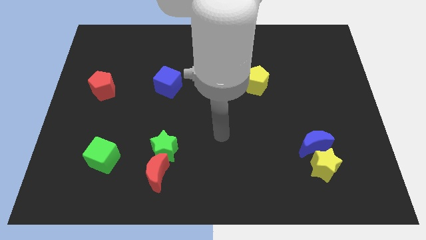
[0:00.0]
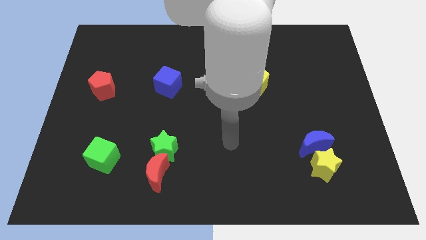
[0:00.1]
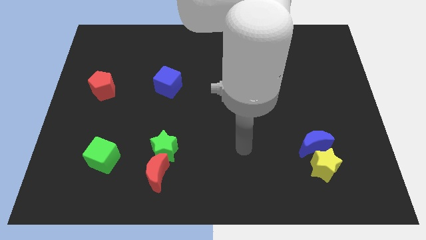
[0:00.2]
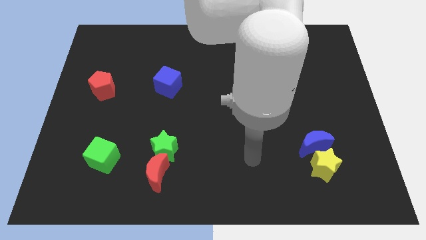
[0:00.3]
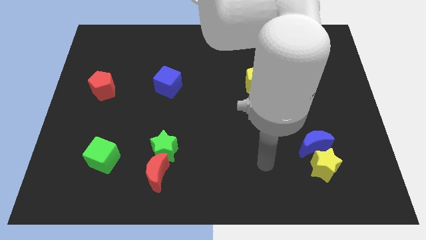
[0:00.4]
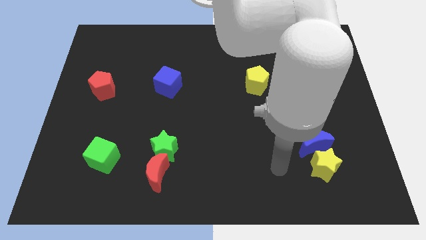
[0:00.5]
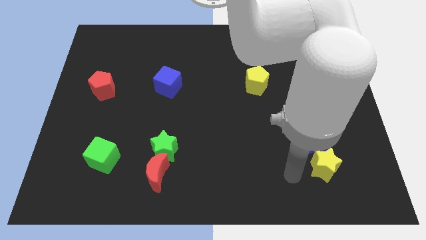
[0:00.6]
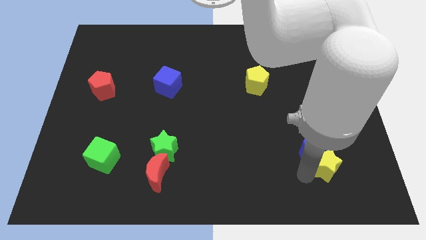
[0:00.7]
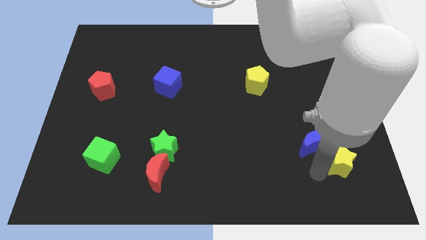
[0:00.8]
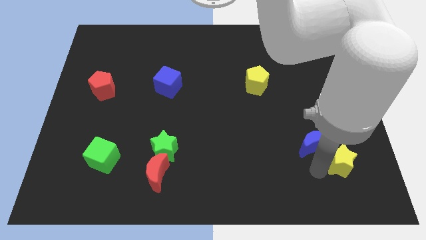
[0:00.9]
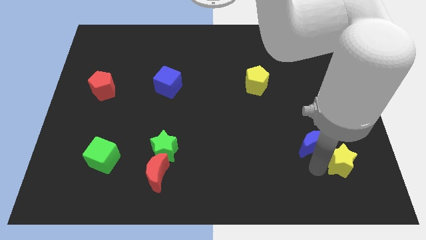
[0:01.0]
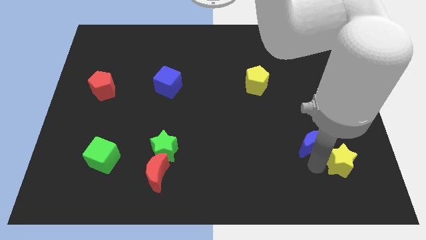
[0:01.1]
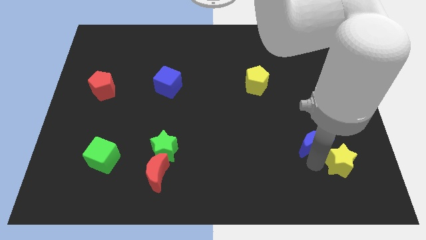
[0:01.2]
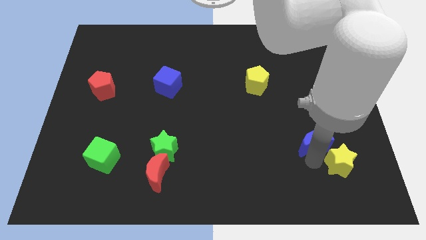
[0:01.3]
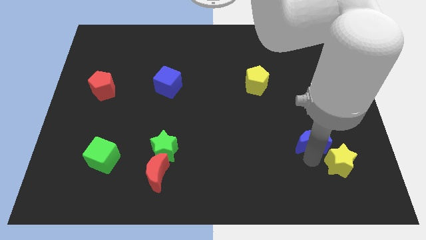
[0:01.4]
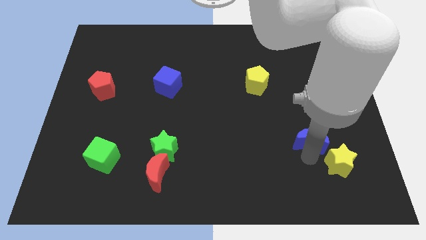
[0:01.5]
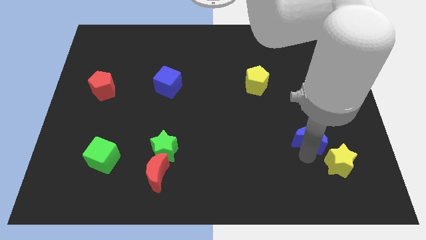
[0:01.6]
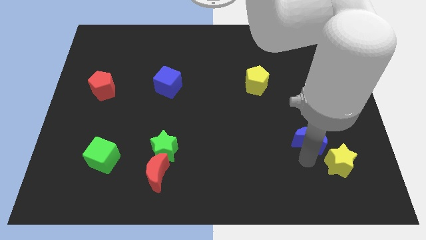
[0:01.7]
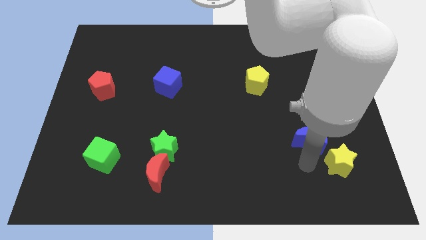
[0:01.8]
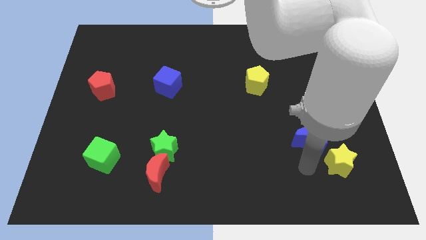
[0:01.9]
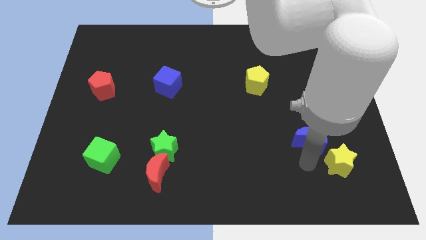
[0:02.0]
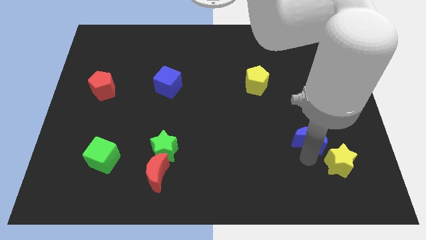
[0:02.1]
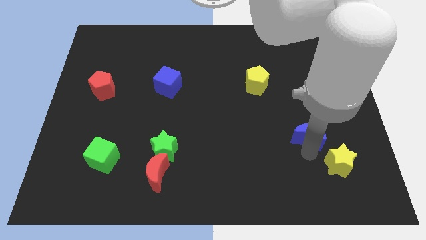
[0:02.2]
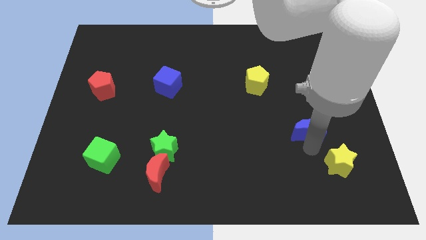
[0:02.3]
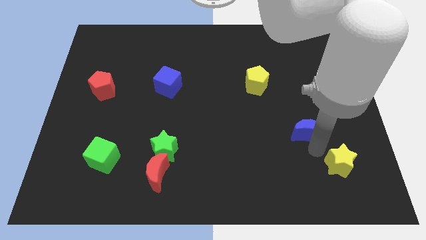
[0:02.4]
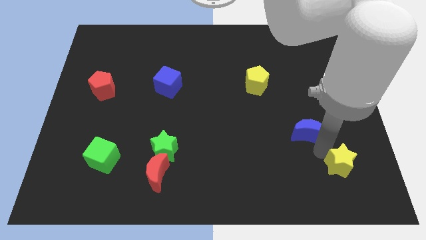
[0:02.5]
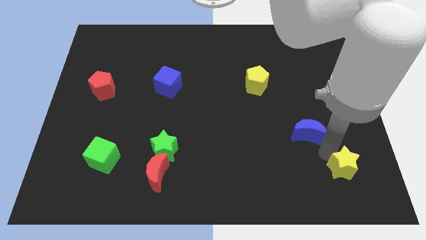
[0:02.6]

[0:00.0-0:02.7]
move the blue moon away from the yellow star

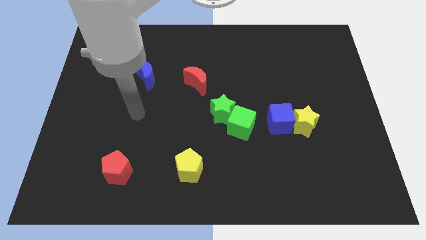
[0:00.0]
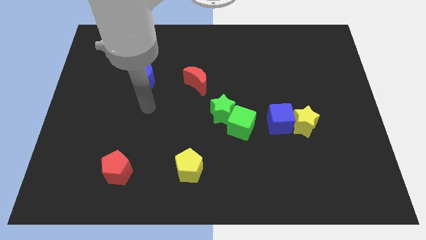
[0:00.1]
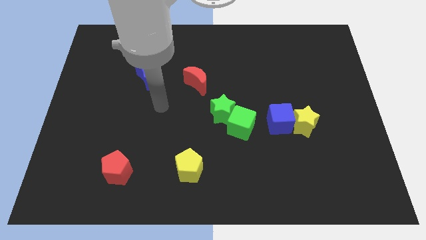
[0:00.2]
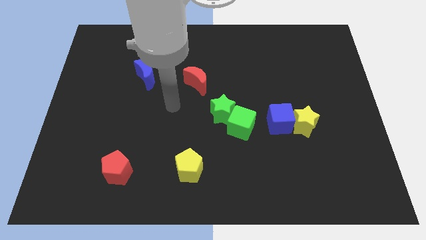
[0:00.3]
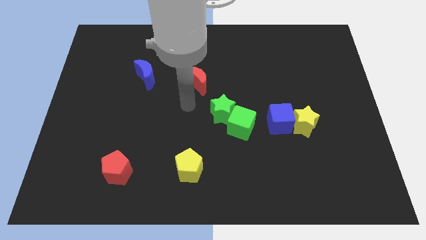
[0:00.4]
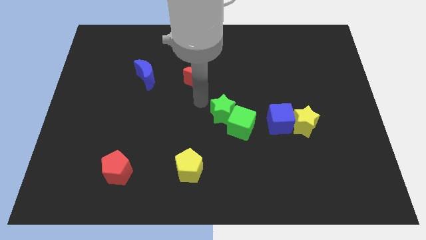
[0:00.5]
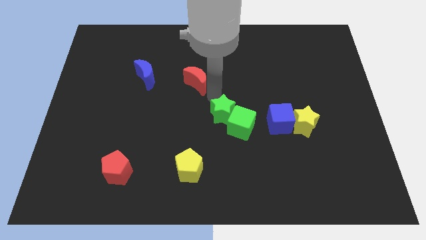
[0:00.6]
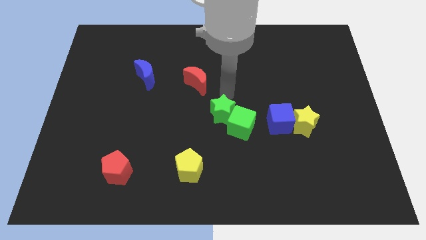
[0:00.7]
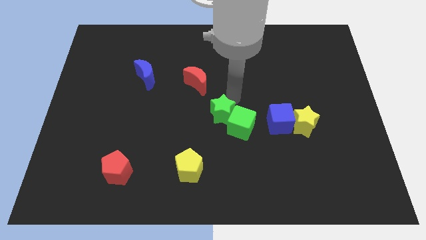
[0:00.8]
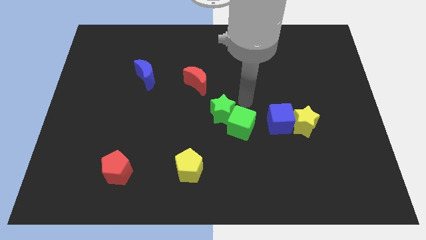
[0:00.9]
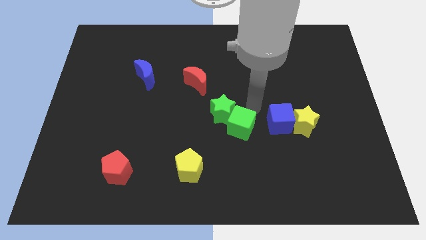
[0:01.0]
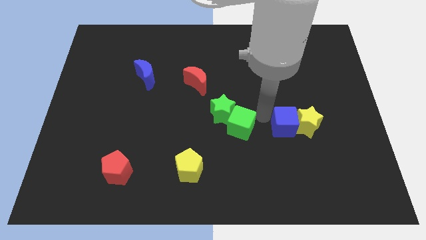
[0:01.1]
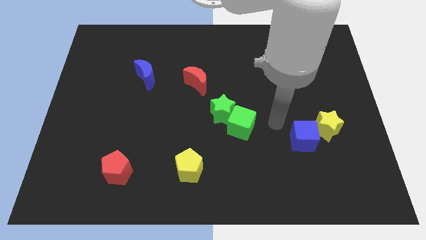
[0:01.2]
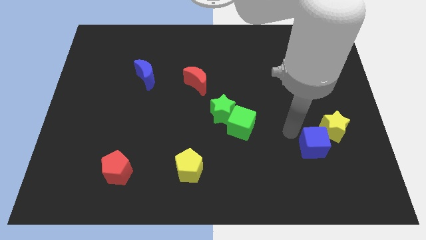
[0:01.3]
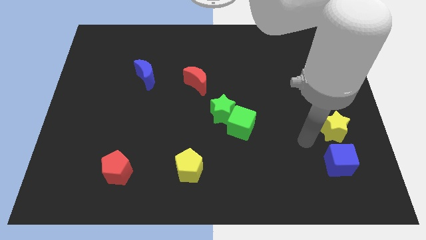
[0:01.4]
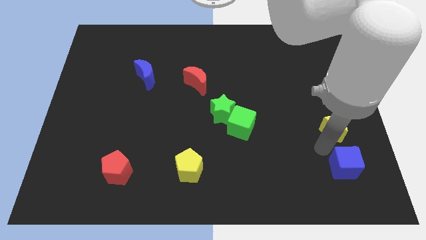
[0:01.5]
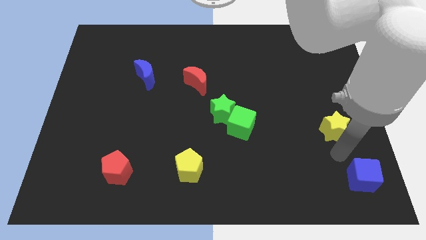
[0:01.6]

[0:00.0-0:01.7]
separate the yellow star from the blue cube

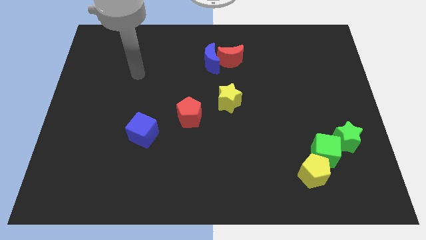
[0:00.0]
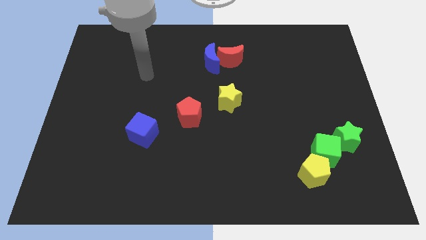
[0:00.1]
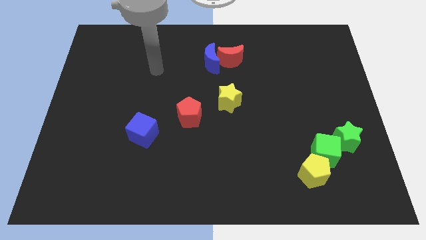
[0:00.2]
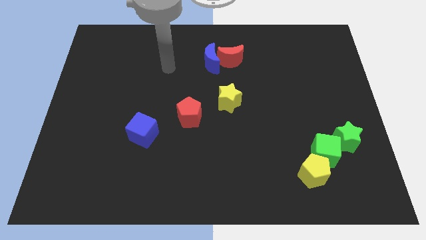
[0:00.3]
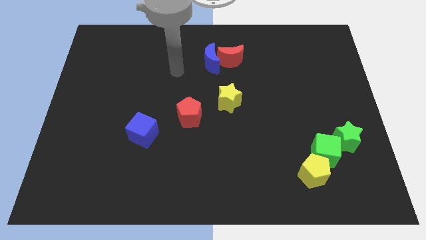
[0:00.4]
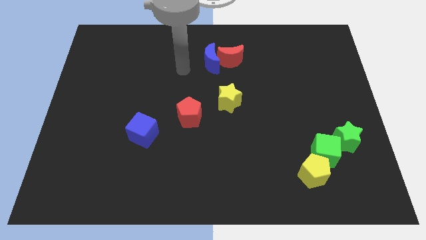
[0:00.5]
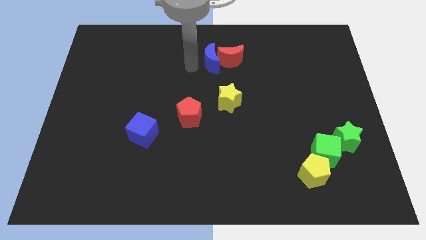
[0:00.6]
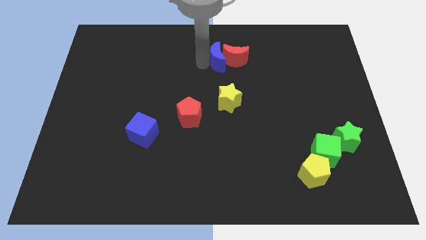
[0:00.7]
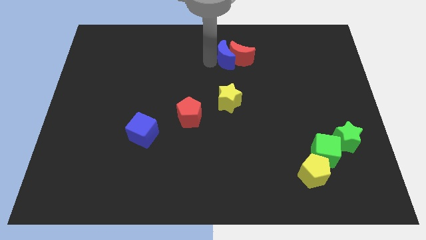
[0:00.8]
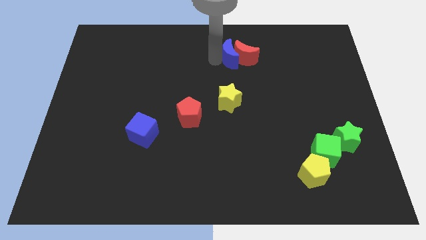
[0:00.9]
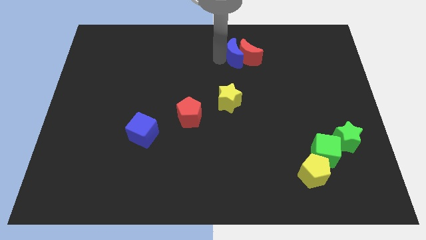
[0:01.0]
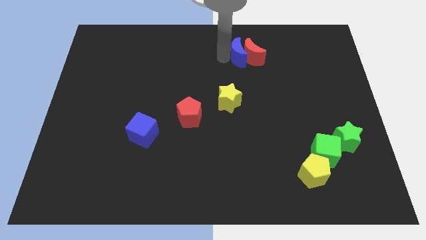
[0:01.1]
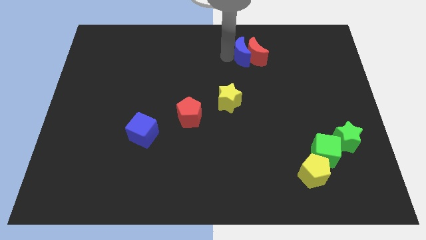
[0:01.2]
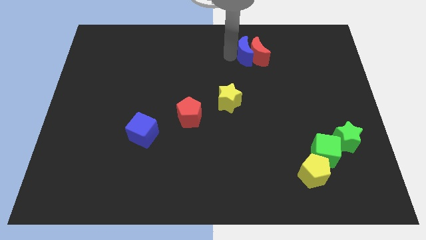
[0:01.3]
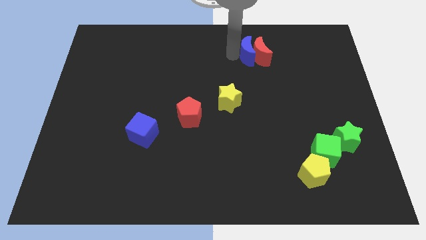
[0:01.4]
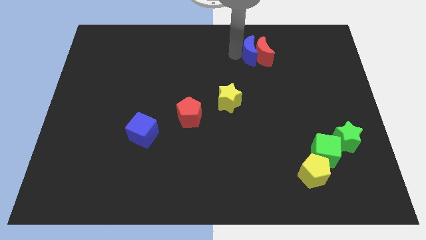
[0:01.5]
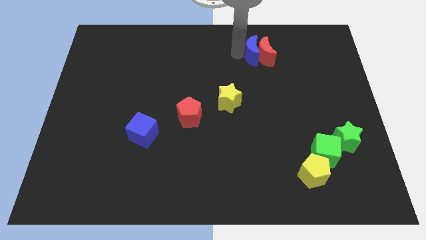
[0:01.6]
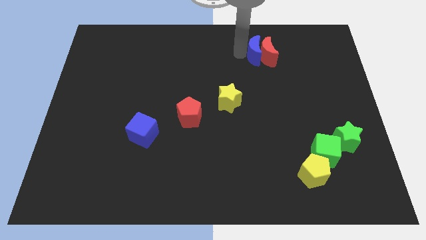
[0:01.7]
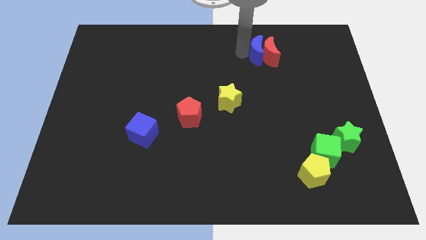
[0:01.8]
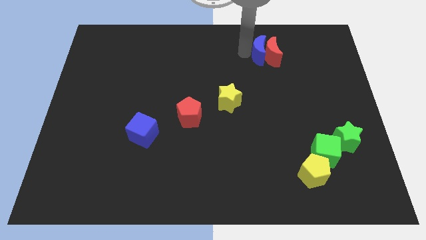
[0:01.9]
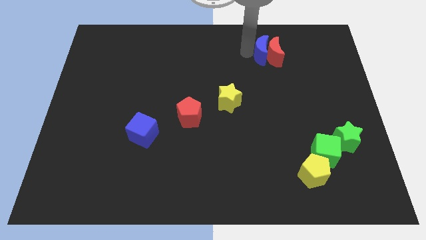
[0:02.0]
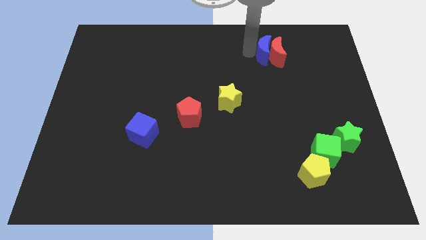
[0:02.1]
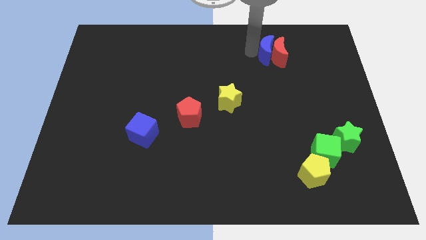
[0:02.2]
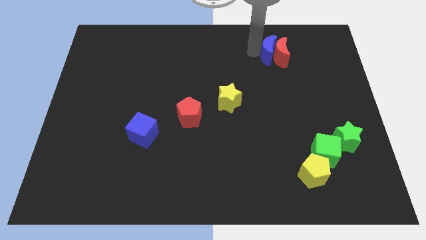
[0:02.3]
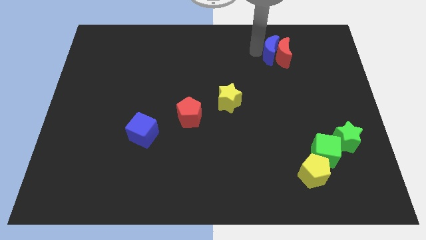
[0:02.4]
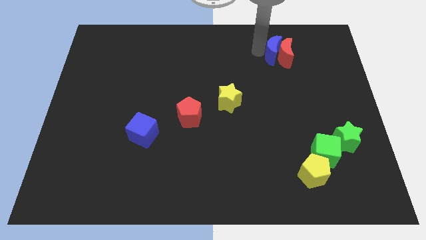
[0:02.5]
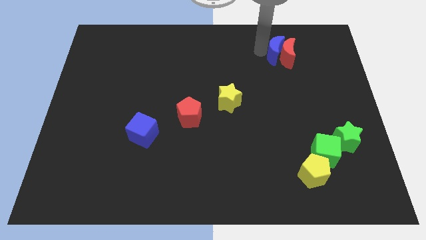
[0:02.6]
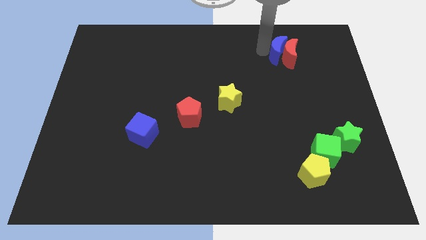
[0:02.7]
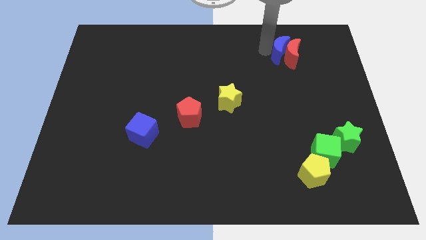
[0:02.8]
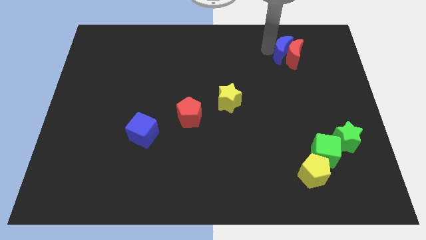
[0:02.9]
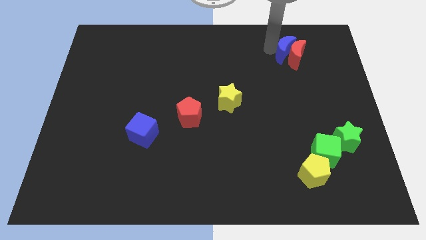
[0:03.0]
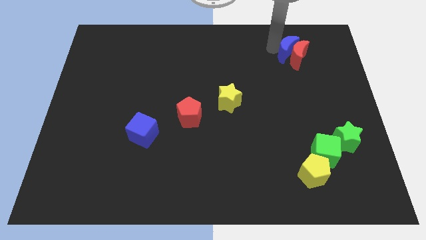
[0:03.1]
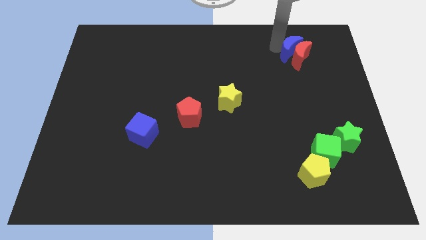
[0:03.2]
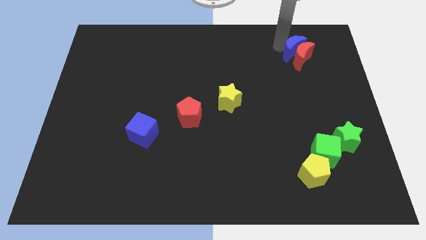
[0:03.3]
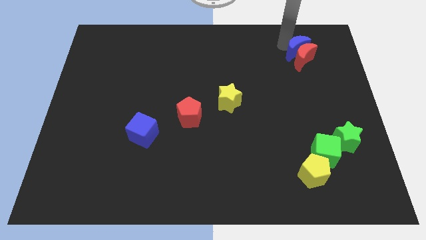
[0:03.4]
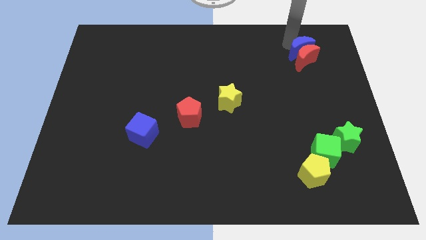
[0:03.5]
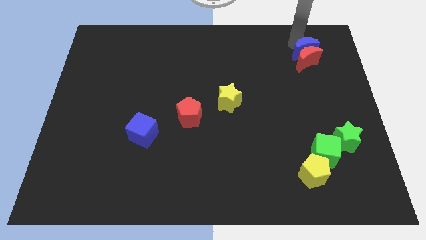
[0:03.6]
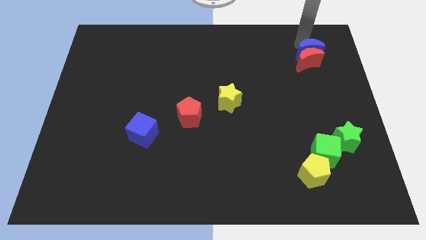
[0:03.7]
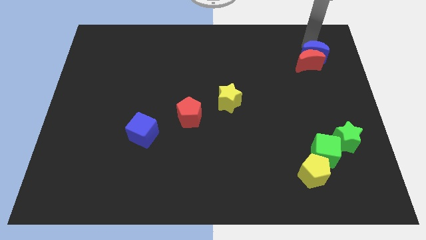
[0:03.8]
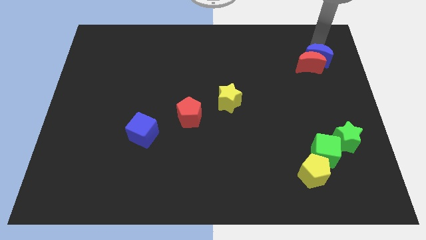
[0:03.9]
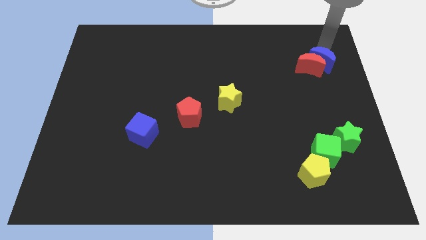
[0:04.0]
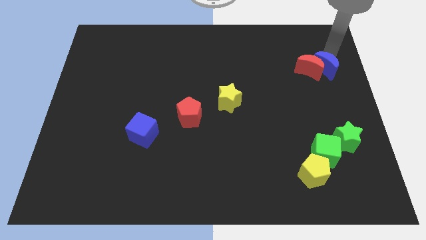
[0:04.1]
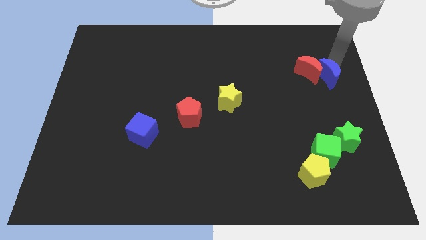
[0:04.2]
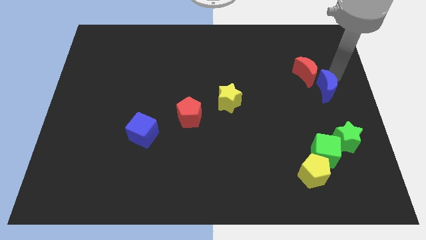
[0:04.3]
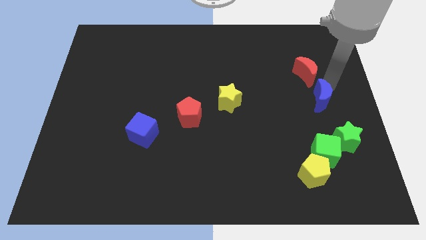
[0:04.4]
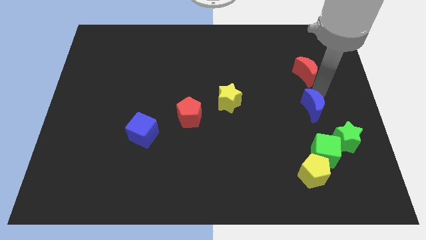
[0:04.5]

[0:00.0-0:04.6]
pull the red moon apart from the blue moon

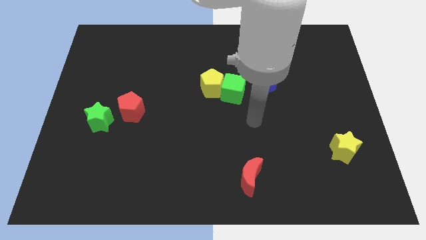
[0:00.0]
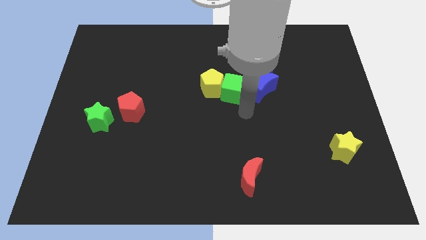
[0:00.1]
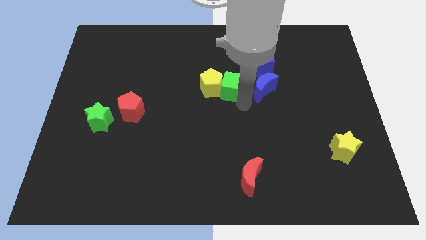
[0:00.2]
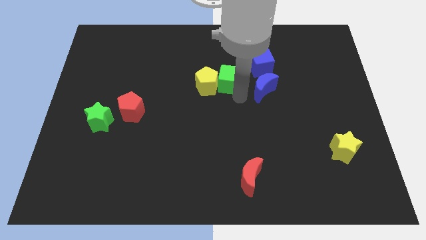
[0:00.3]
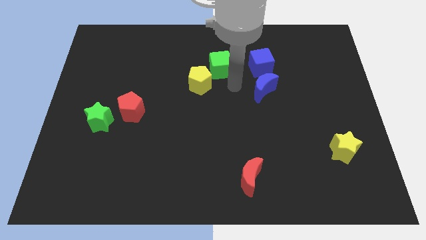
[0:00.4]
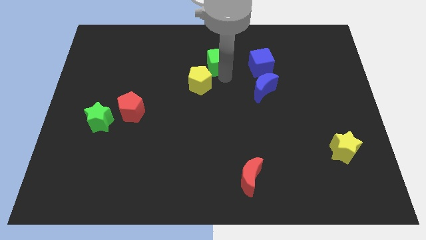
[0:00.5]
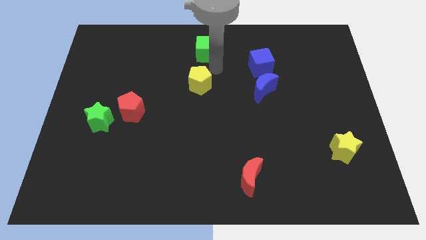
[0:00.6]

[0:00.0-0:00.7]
pull the yellow pentagon apart from the green cube
